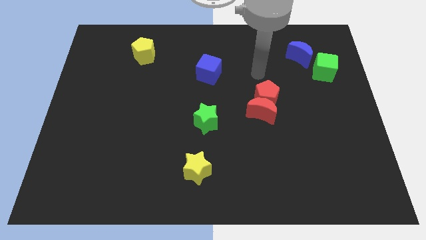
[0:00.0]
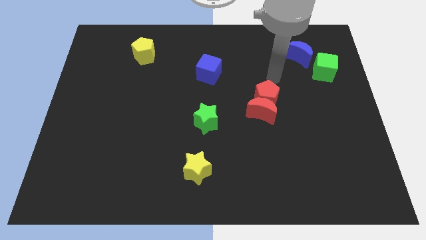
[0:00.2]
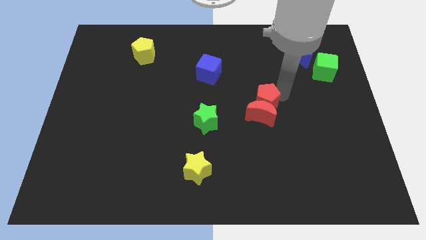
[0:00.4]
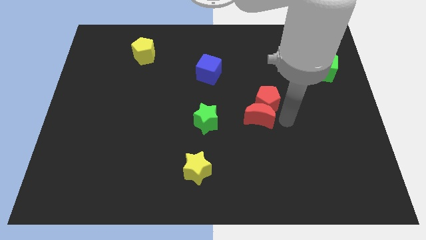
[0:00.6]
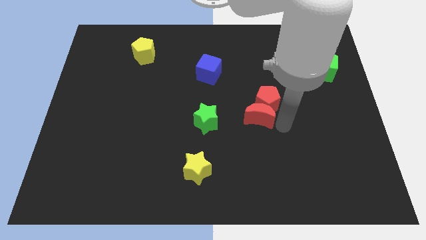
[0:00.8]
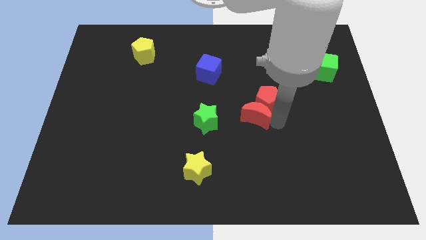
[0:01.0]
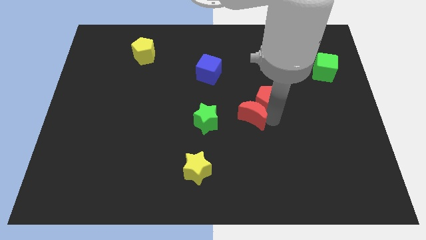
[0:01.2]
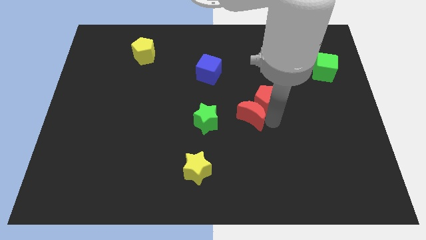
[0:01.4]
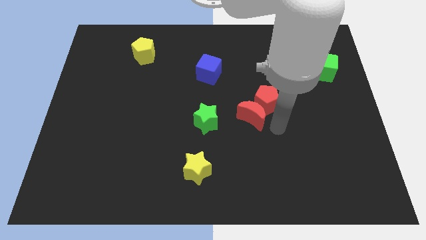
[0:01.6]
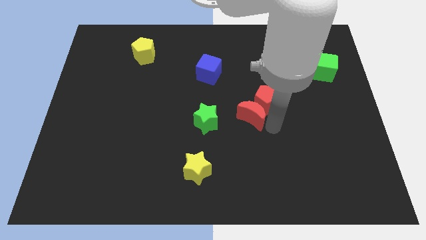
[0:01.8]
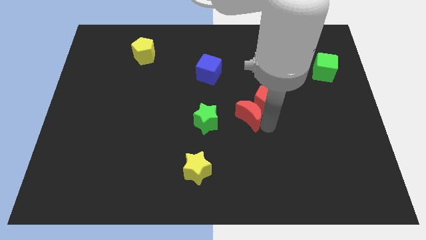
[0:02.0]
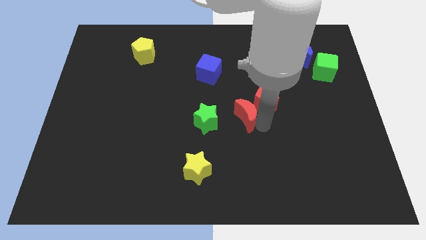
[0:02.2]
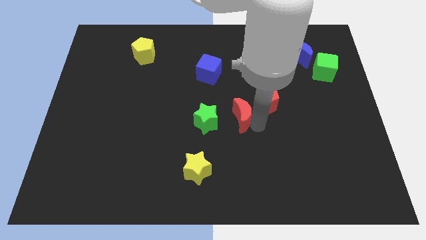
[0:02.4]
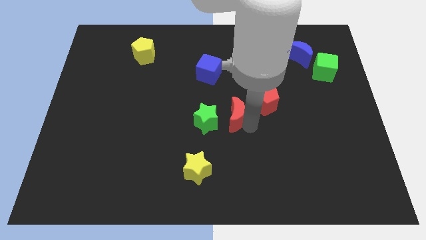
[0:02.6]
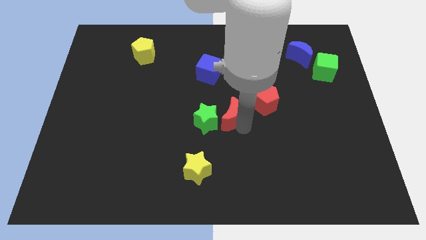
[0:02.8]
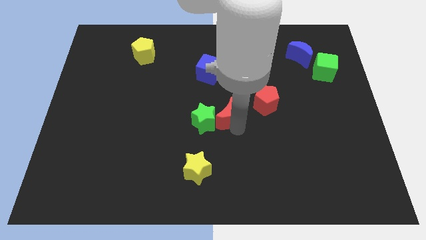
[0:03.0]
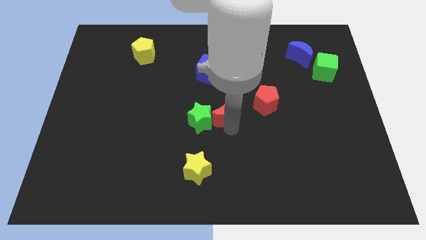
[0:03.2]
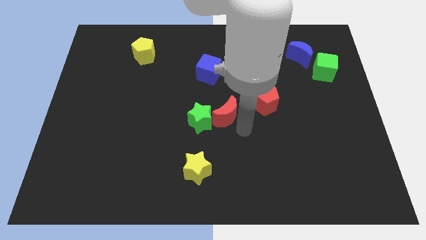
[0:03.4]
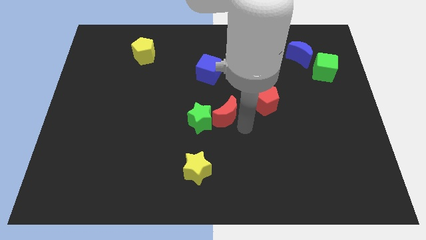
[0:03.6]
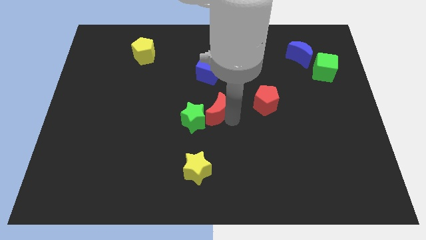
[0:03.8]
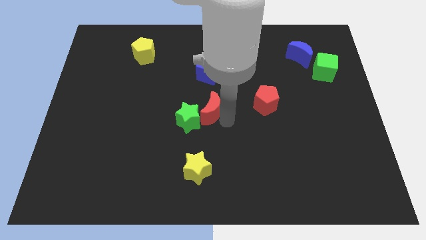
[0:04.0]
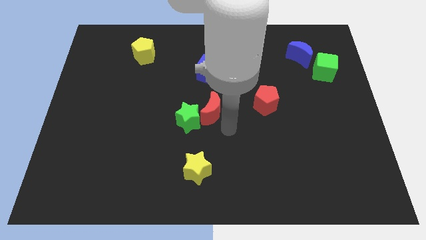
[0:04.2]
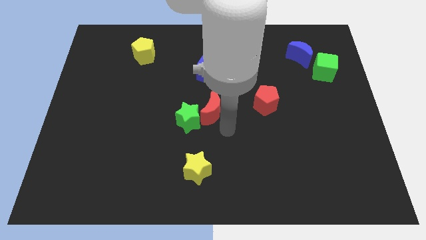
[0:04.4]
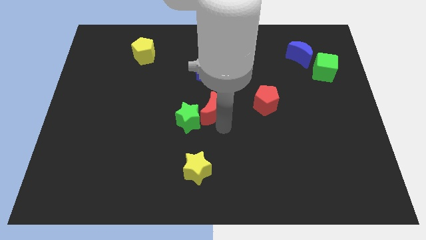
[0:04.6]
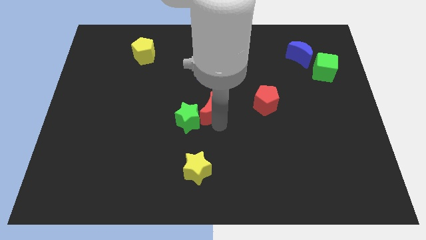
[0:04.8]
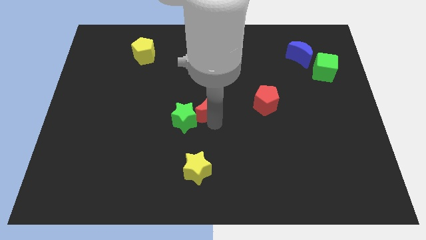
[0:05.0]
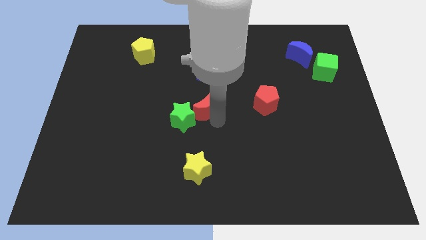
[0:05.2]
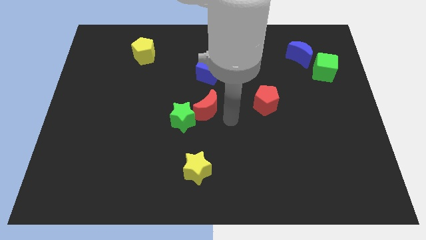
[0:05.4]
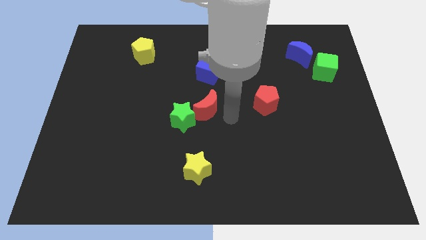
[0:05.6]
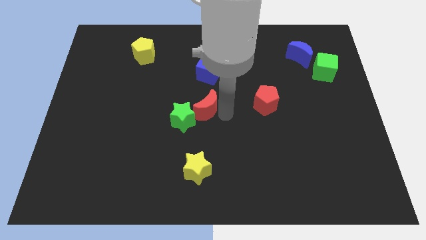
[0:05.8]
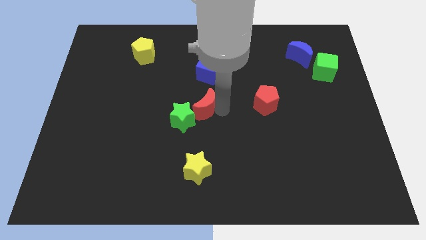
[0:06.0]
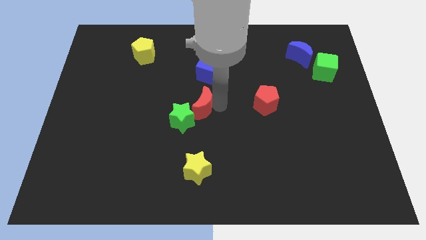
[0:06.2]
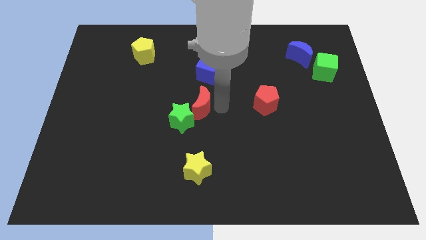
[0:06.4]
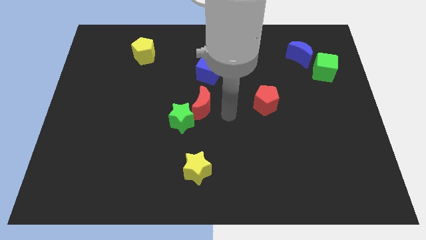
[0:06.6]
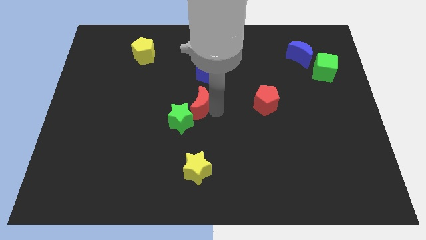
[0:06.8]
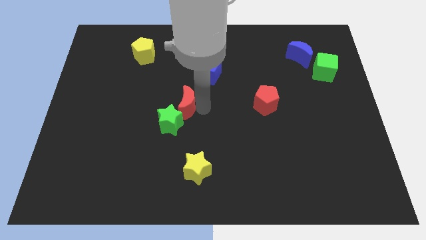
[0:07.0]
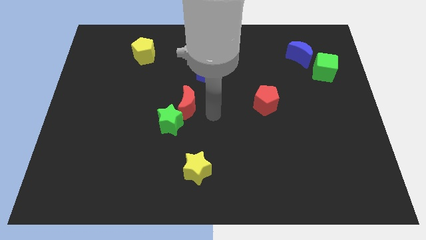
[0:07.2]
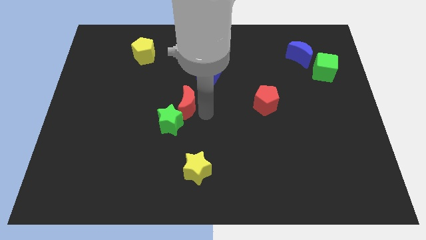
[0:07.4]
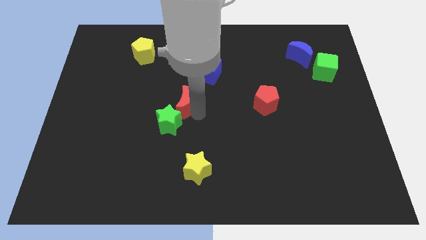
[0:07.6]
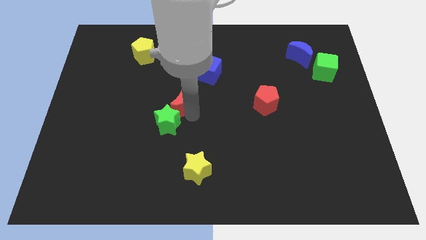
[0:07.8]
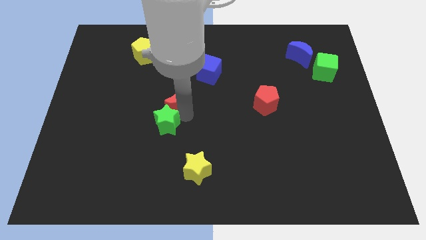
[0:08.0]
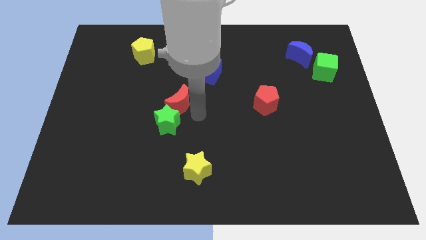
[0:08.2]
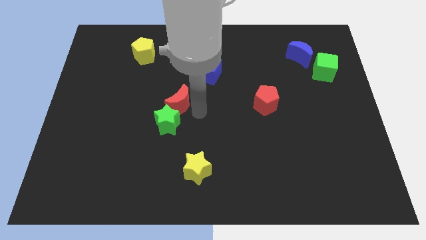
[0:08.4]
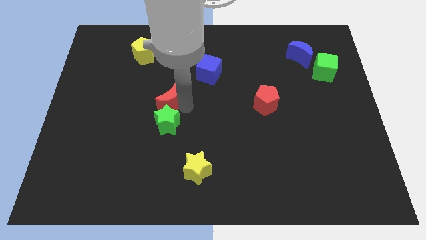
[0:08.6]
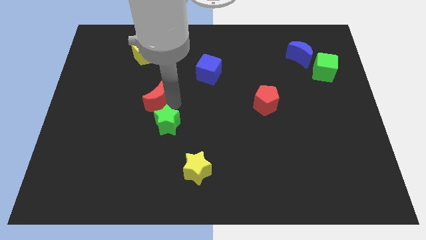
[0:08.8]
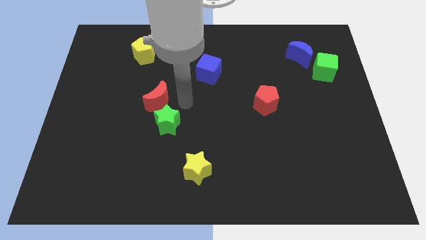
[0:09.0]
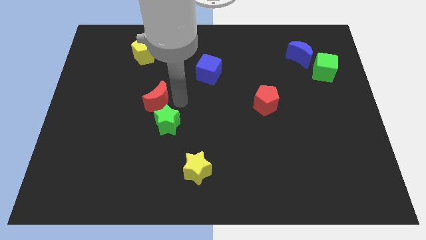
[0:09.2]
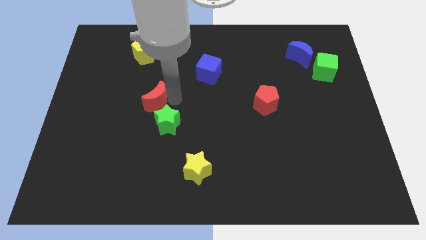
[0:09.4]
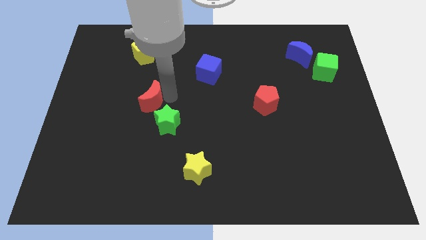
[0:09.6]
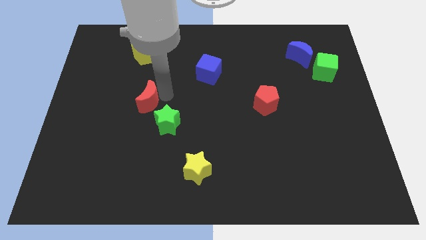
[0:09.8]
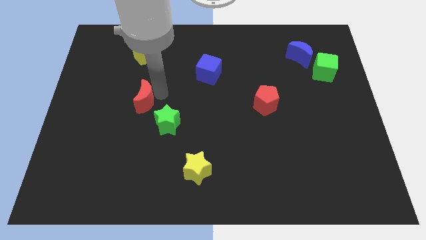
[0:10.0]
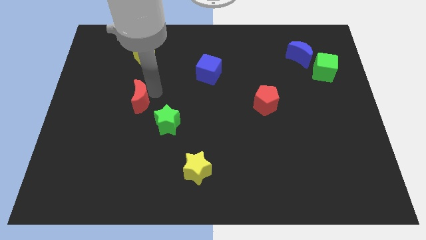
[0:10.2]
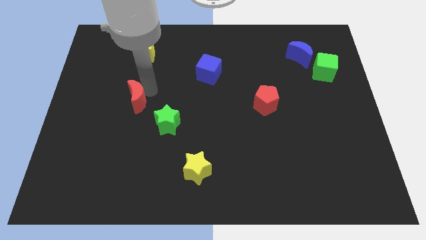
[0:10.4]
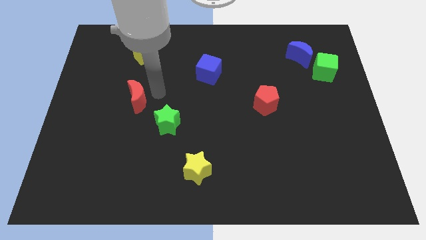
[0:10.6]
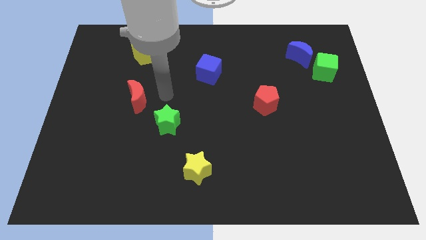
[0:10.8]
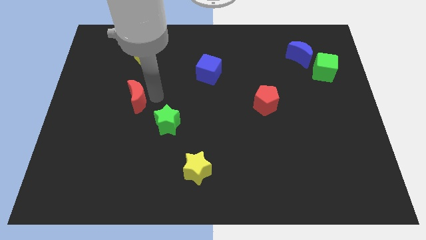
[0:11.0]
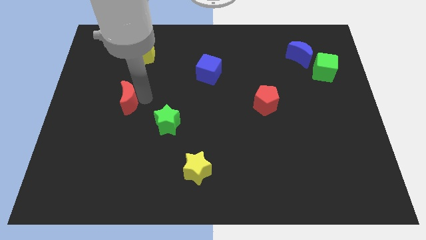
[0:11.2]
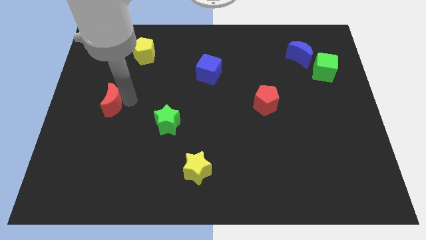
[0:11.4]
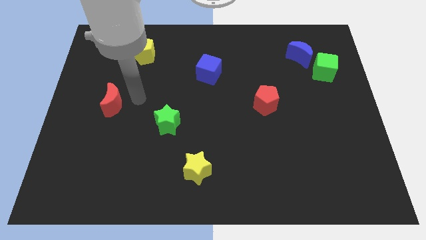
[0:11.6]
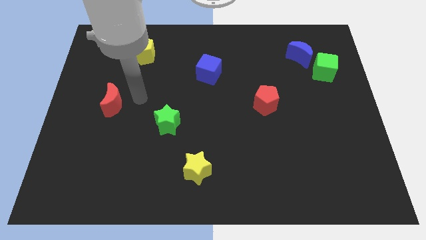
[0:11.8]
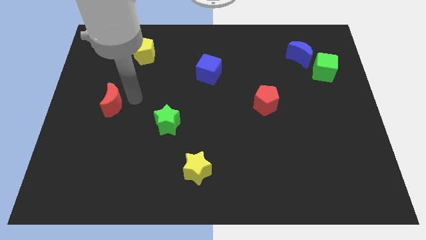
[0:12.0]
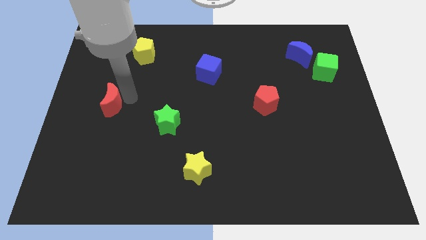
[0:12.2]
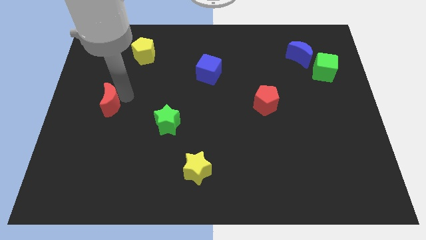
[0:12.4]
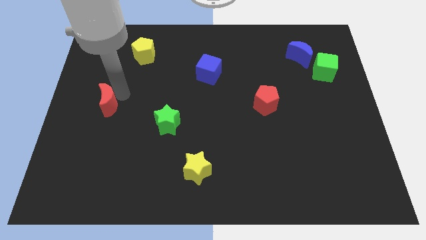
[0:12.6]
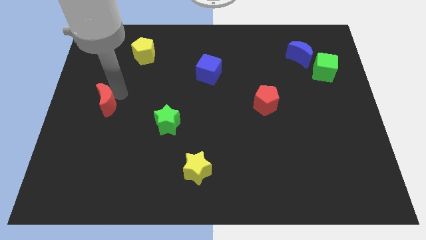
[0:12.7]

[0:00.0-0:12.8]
put the red moon to the center left

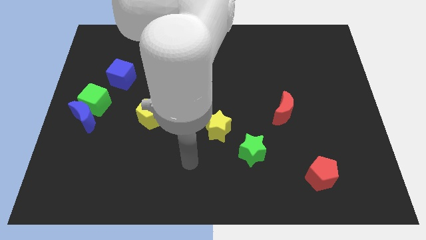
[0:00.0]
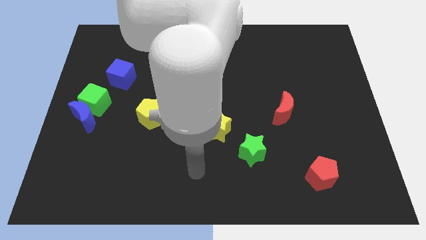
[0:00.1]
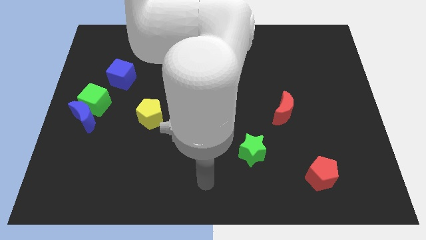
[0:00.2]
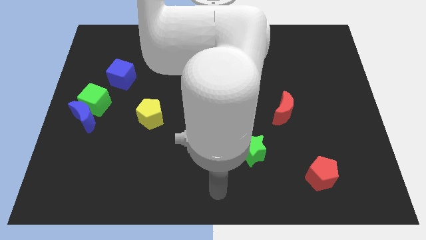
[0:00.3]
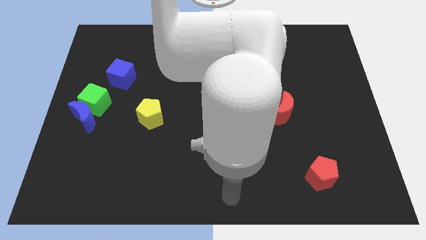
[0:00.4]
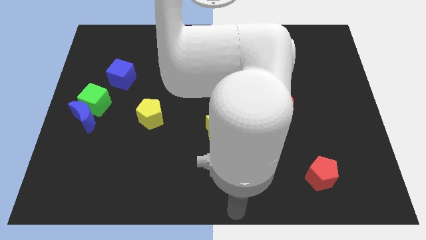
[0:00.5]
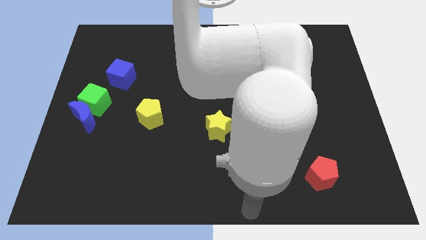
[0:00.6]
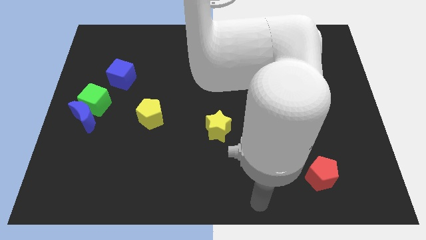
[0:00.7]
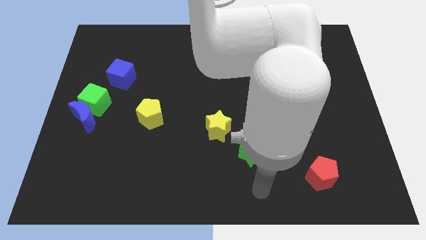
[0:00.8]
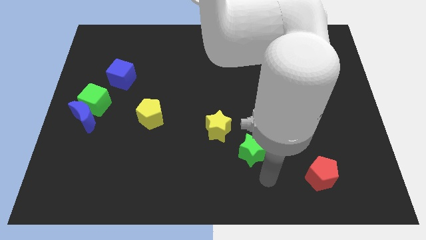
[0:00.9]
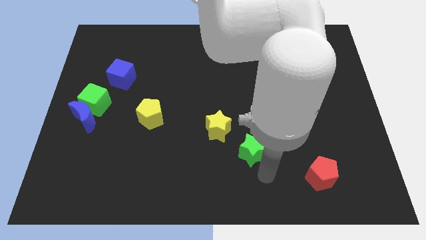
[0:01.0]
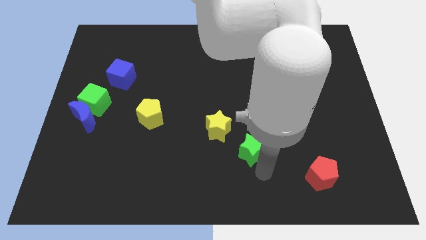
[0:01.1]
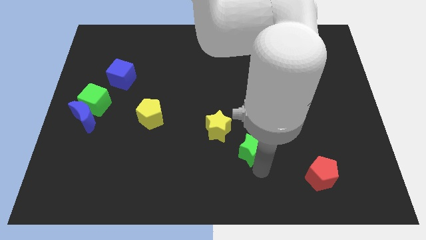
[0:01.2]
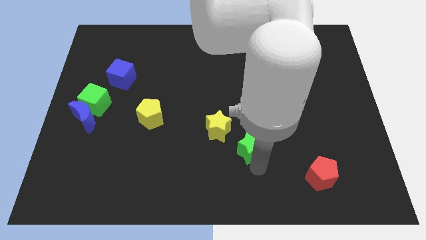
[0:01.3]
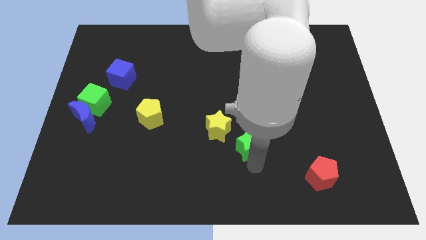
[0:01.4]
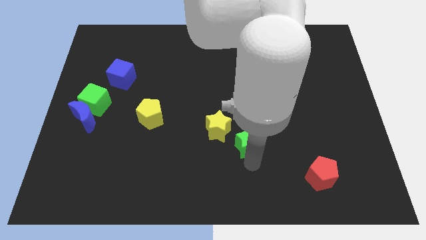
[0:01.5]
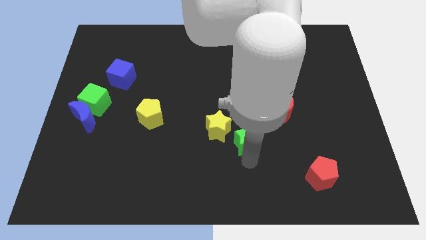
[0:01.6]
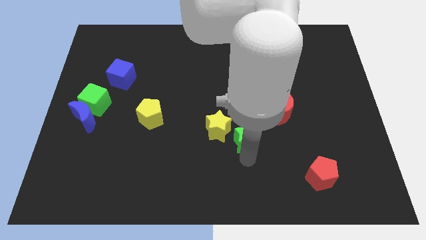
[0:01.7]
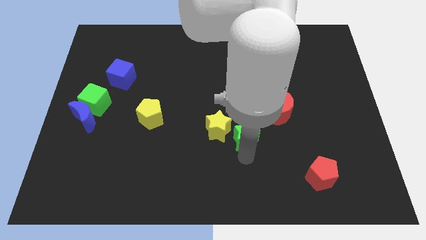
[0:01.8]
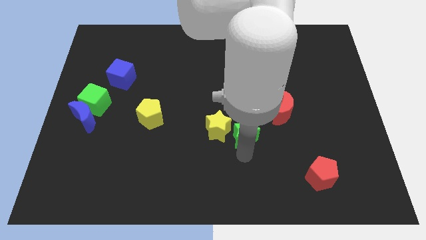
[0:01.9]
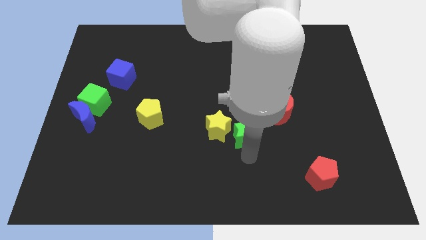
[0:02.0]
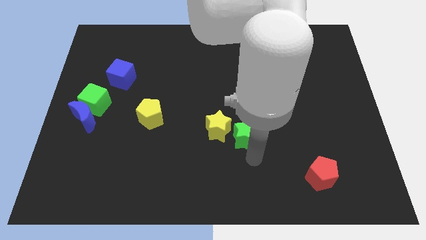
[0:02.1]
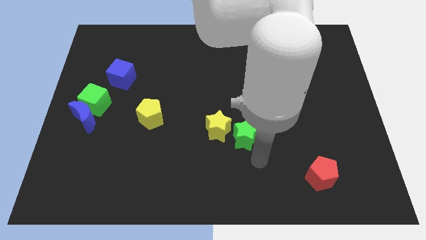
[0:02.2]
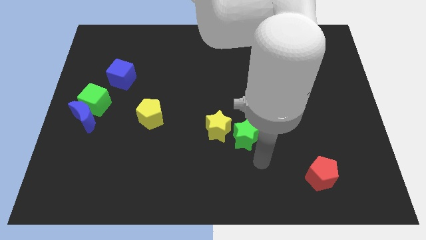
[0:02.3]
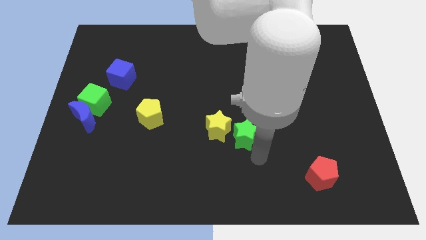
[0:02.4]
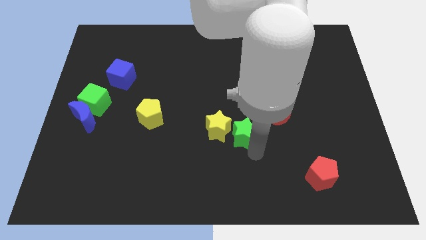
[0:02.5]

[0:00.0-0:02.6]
put the green star to the center of the board
